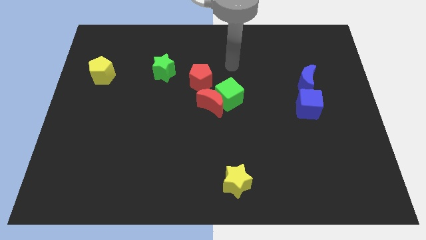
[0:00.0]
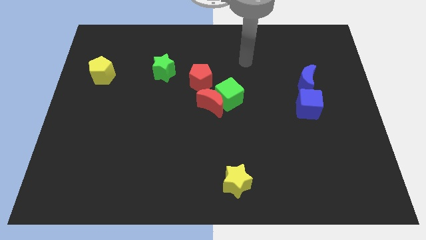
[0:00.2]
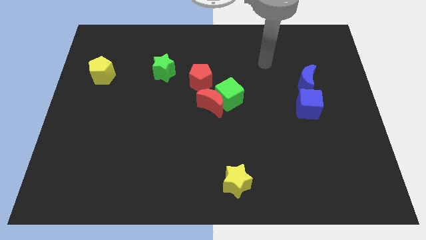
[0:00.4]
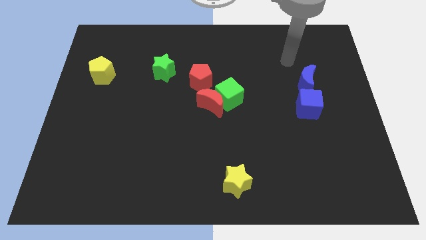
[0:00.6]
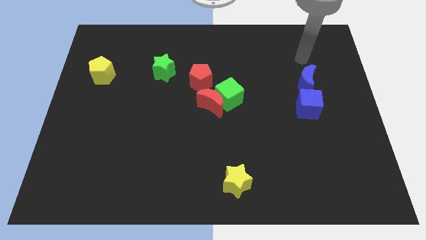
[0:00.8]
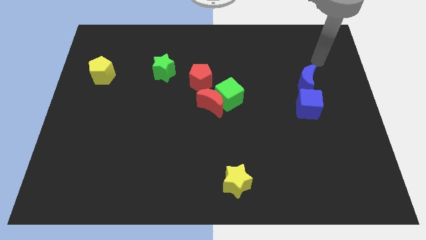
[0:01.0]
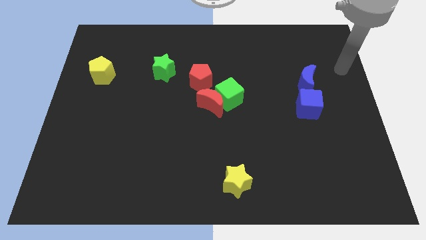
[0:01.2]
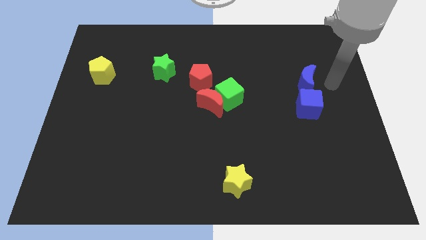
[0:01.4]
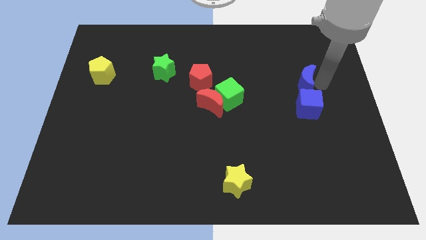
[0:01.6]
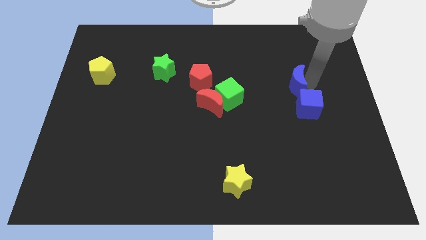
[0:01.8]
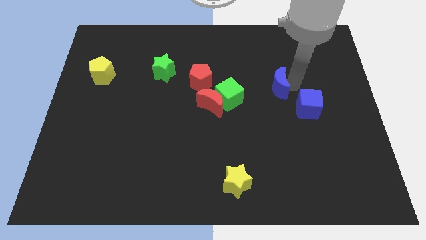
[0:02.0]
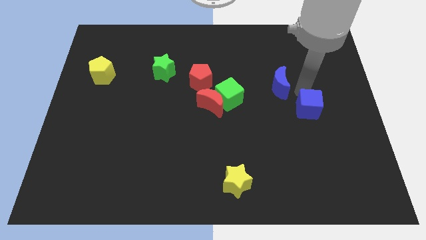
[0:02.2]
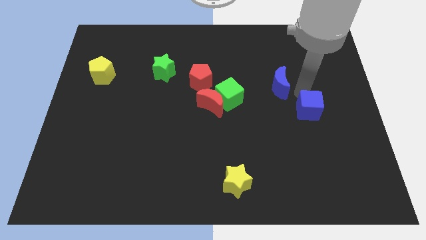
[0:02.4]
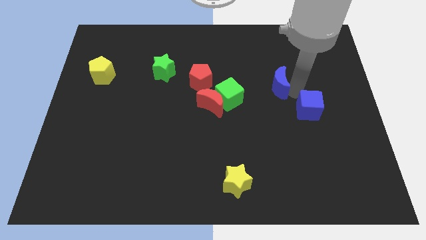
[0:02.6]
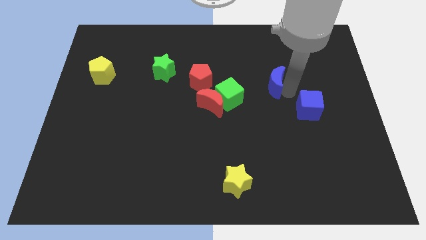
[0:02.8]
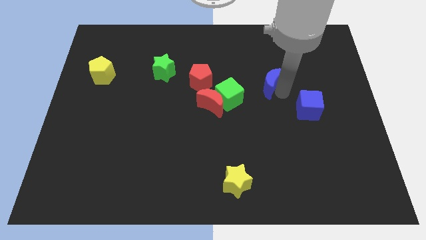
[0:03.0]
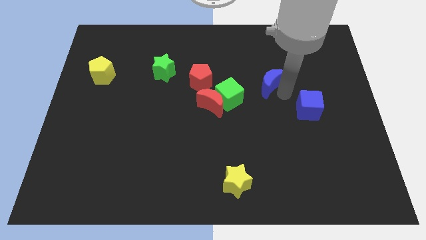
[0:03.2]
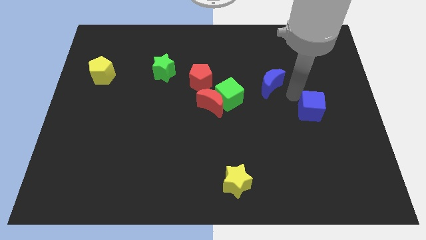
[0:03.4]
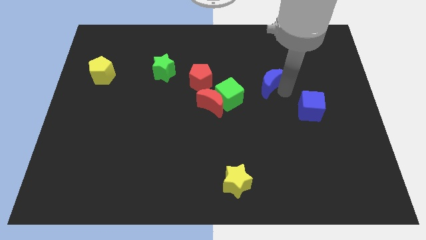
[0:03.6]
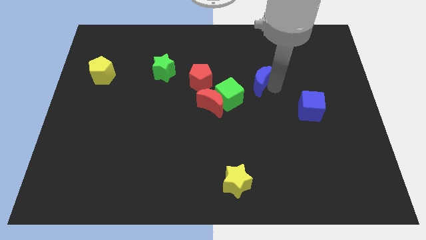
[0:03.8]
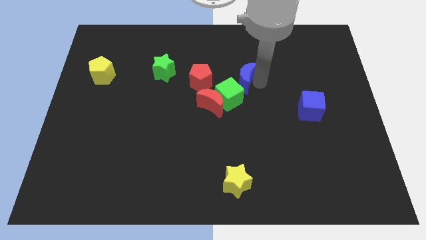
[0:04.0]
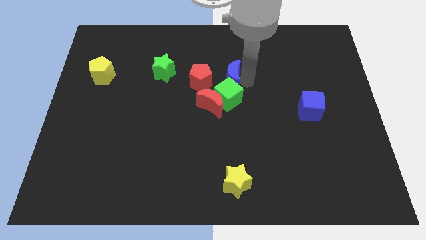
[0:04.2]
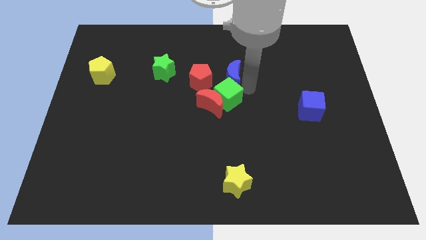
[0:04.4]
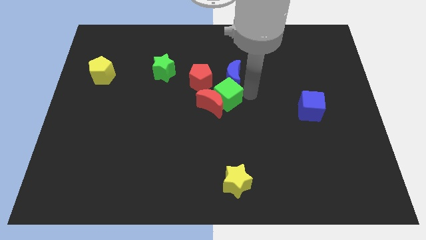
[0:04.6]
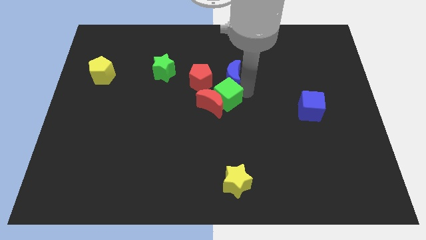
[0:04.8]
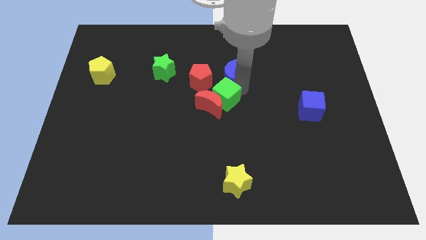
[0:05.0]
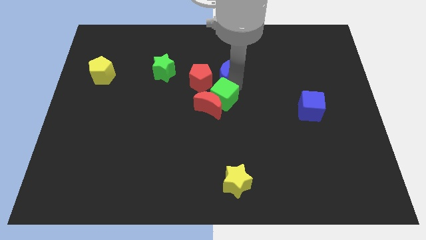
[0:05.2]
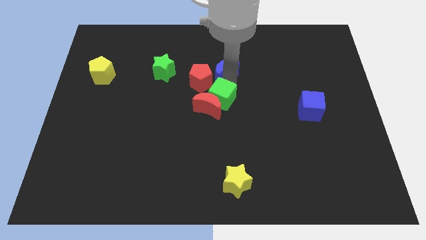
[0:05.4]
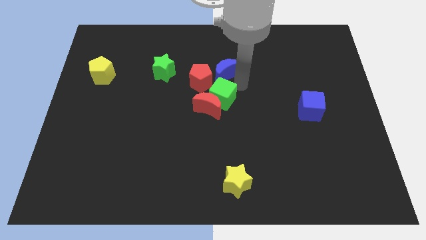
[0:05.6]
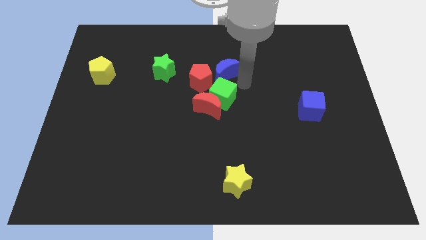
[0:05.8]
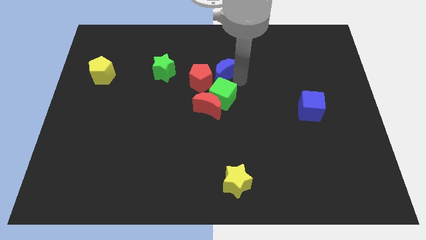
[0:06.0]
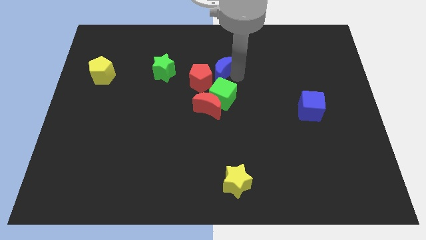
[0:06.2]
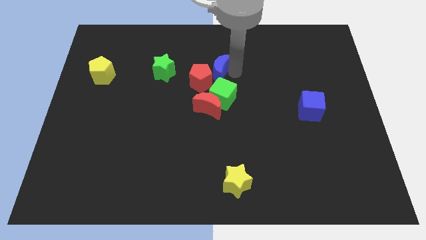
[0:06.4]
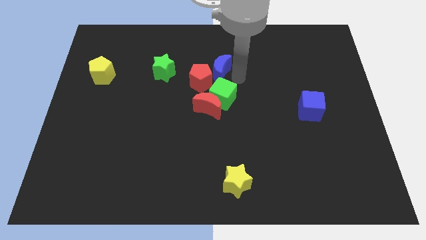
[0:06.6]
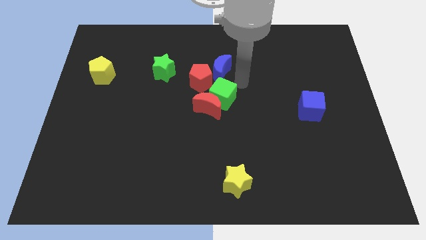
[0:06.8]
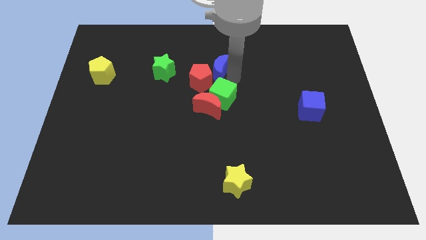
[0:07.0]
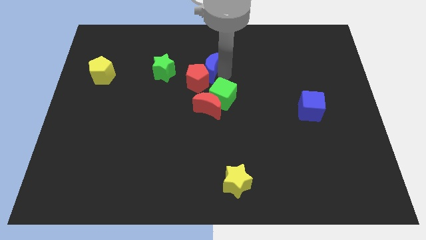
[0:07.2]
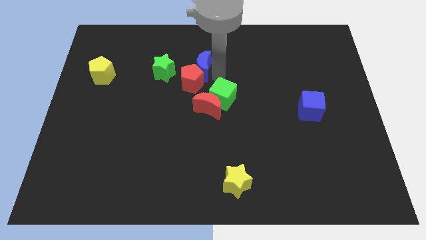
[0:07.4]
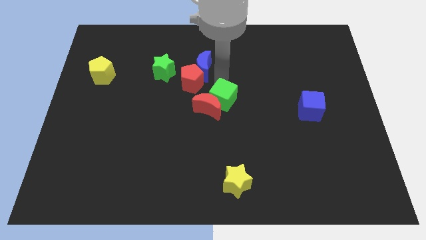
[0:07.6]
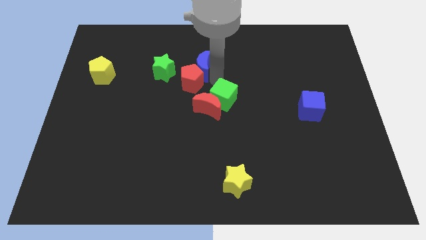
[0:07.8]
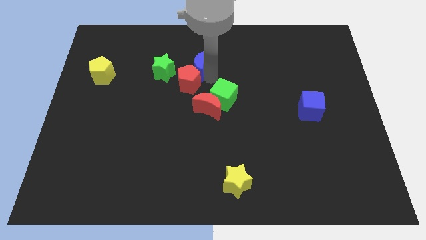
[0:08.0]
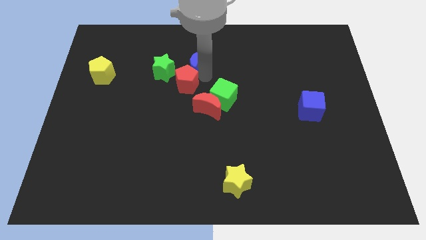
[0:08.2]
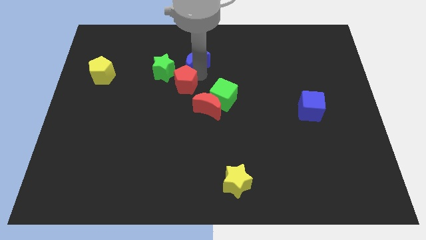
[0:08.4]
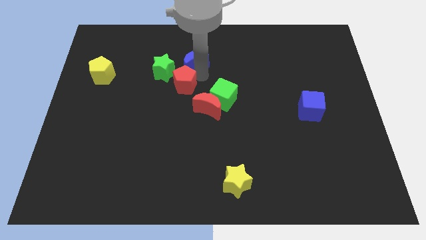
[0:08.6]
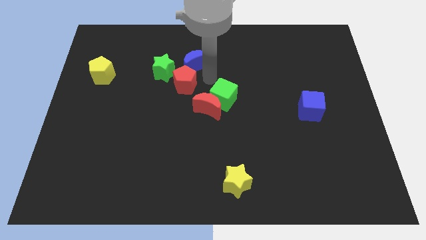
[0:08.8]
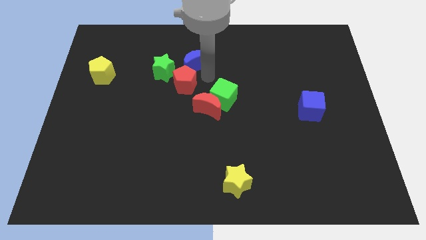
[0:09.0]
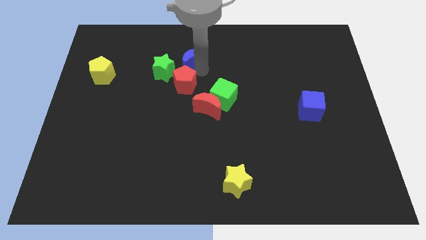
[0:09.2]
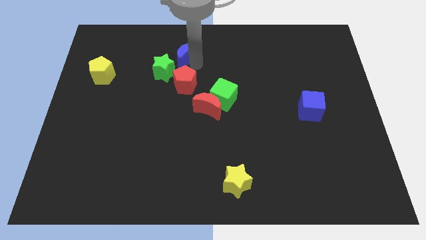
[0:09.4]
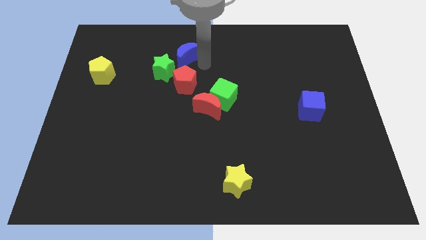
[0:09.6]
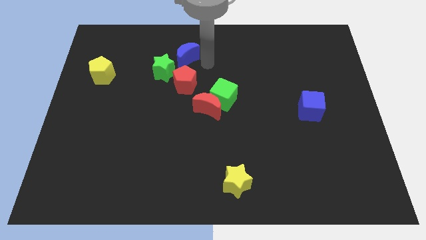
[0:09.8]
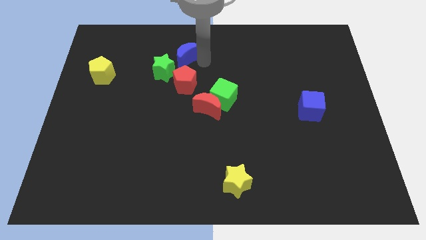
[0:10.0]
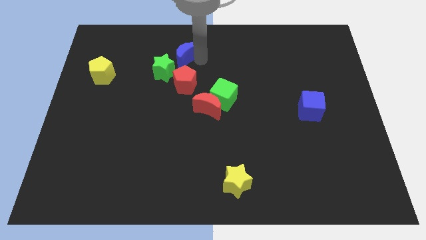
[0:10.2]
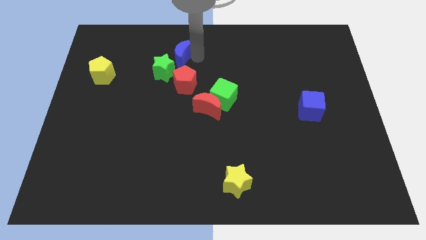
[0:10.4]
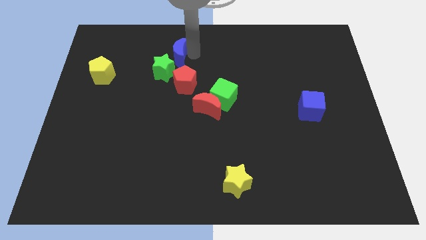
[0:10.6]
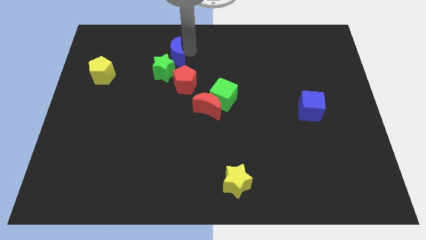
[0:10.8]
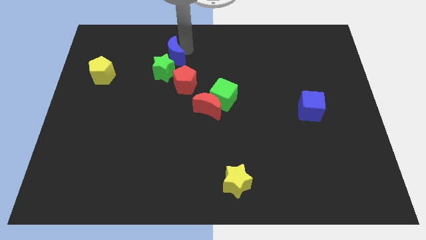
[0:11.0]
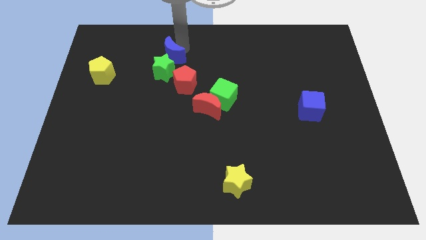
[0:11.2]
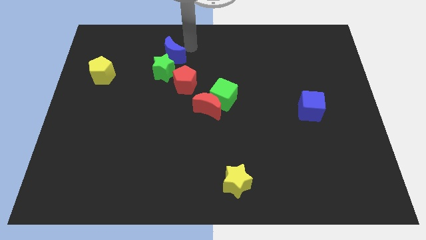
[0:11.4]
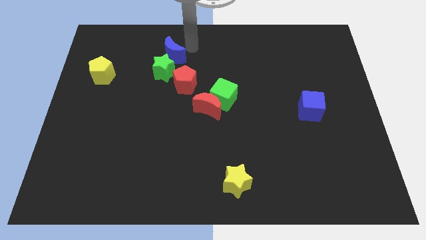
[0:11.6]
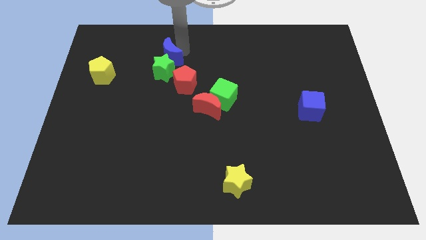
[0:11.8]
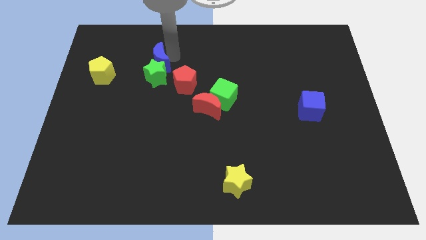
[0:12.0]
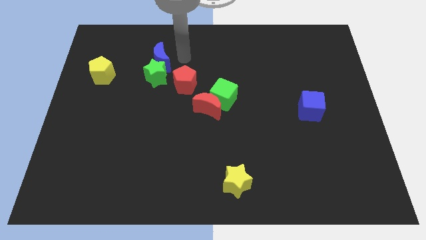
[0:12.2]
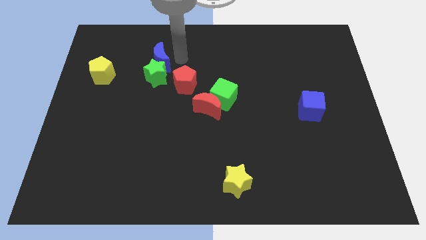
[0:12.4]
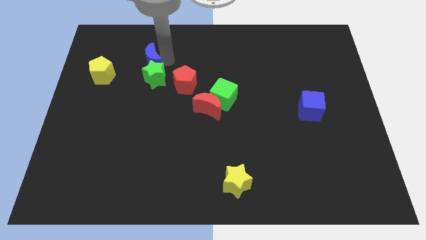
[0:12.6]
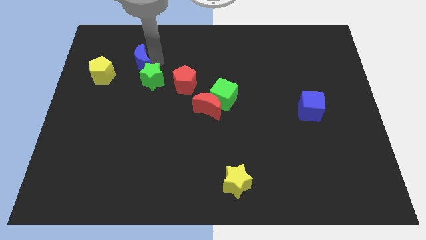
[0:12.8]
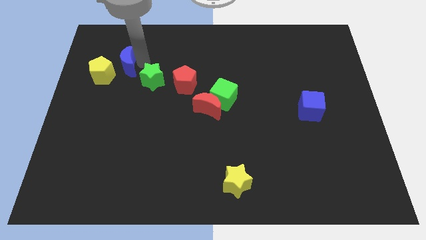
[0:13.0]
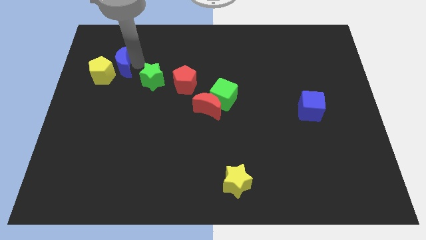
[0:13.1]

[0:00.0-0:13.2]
put the blue moon towards the yellow pentagon
